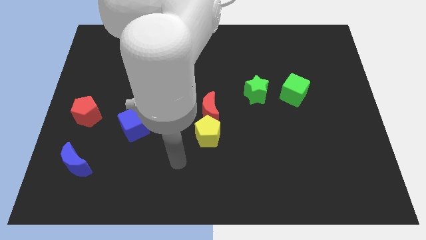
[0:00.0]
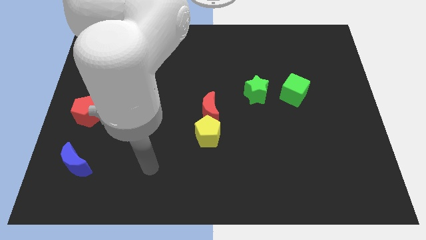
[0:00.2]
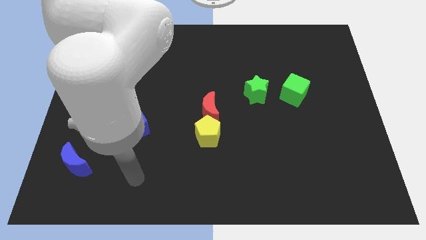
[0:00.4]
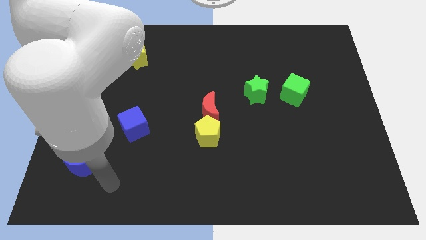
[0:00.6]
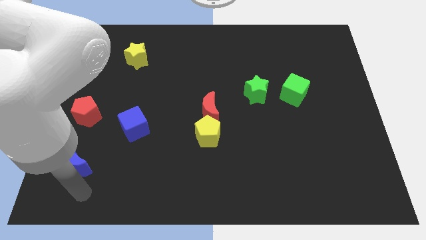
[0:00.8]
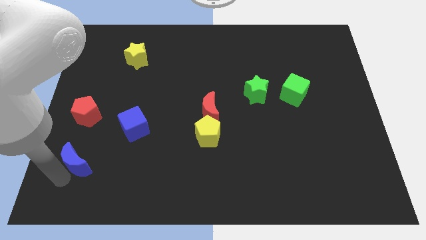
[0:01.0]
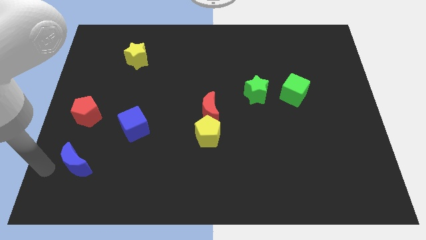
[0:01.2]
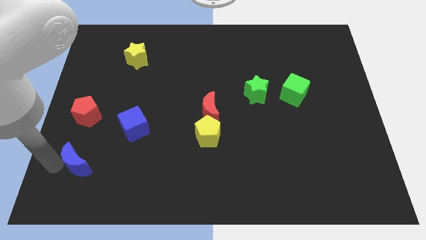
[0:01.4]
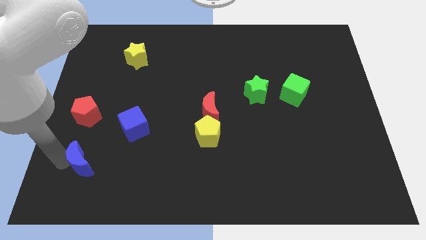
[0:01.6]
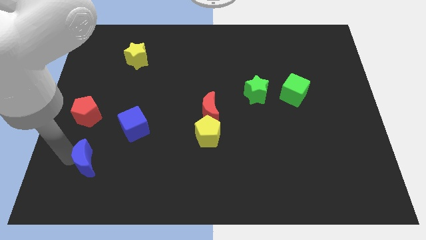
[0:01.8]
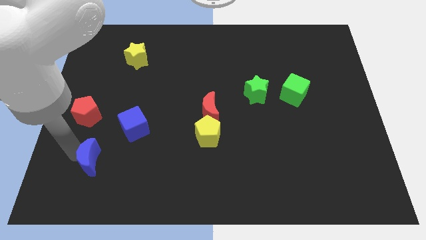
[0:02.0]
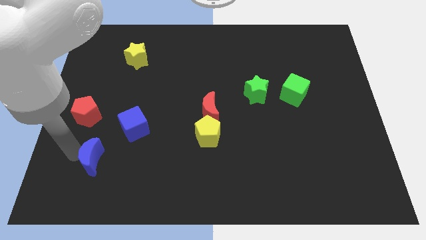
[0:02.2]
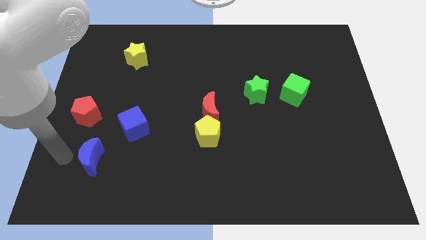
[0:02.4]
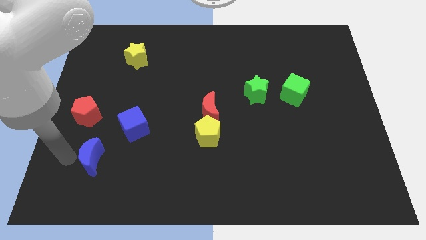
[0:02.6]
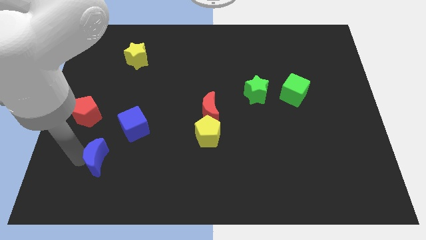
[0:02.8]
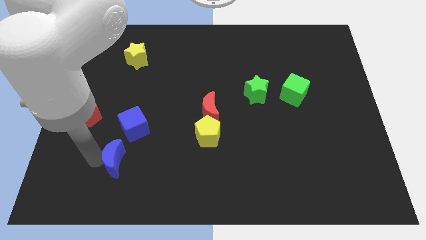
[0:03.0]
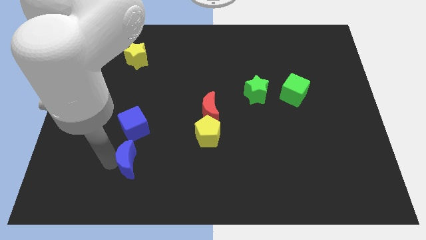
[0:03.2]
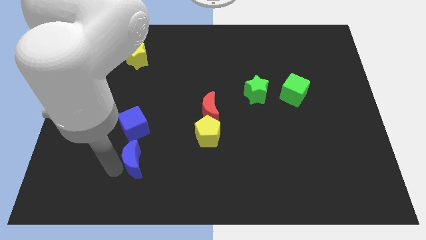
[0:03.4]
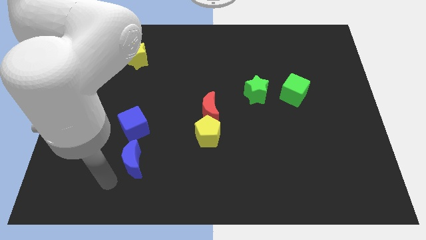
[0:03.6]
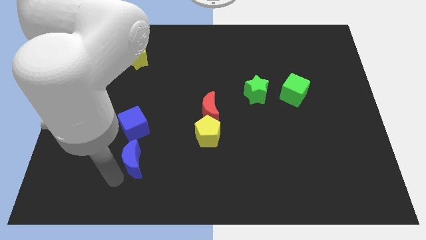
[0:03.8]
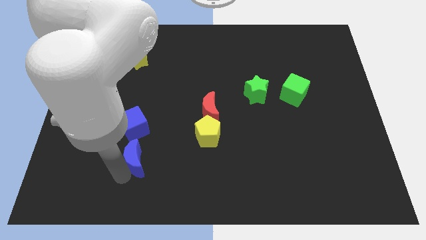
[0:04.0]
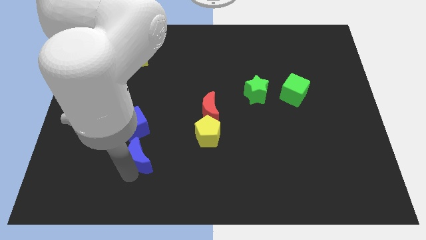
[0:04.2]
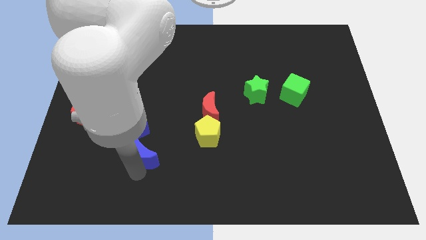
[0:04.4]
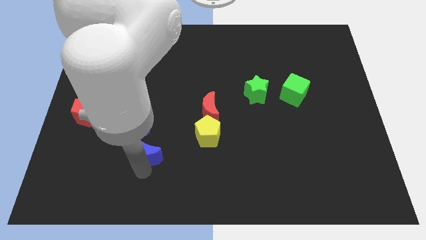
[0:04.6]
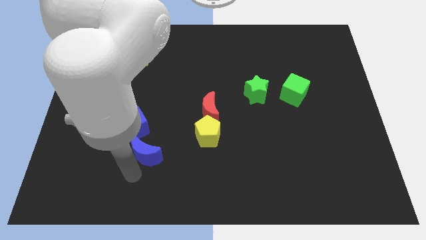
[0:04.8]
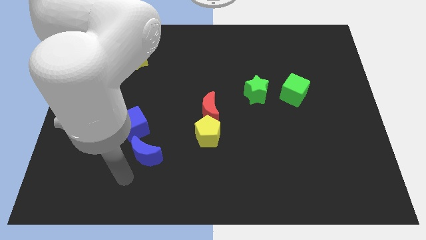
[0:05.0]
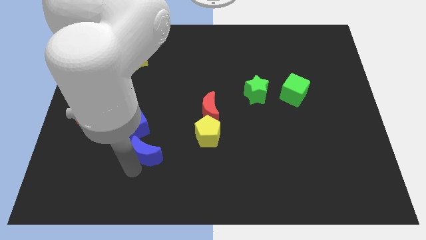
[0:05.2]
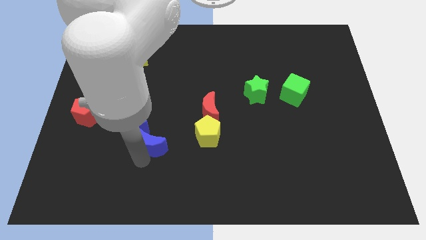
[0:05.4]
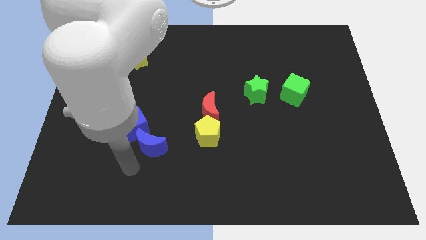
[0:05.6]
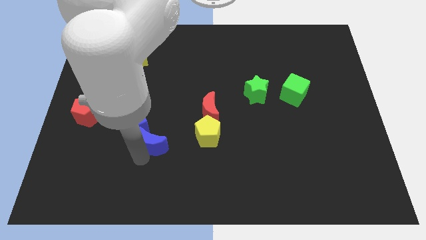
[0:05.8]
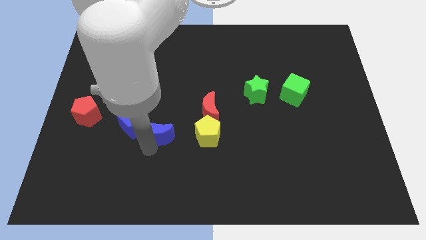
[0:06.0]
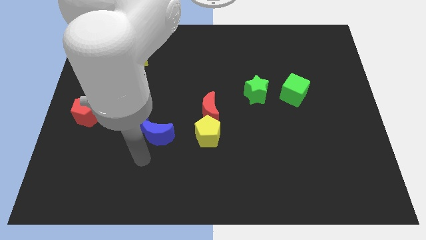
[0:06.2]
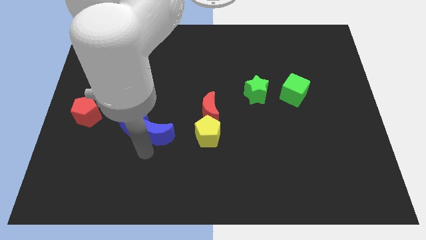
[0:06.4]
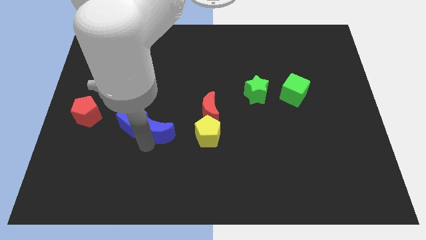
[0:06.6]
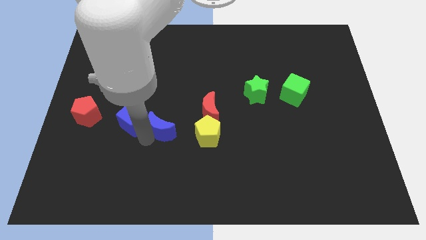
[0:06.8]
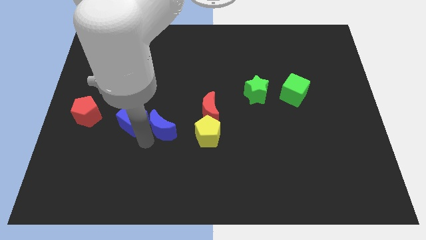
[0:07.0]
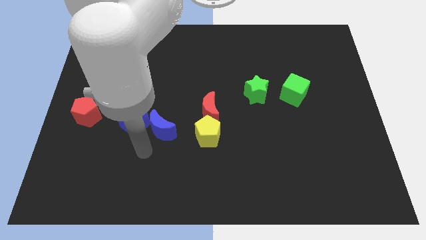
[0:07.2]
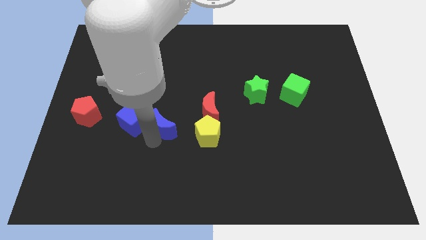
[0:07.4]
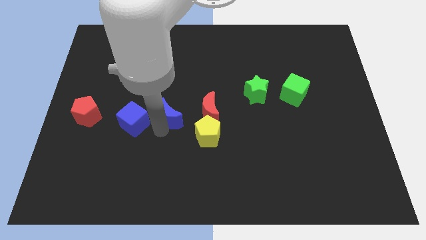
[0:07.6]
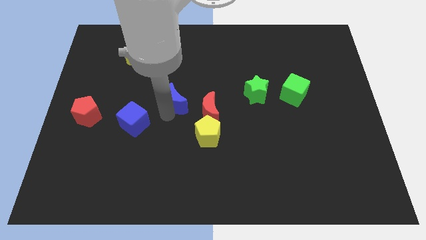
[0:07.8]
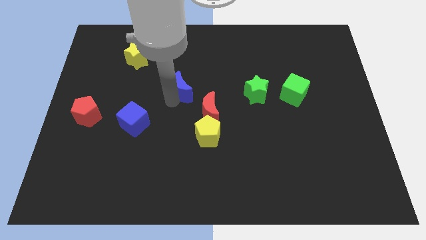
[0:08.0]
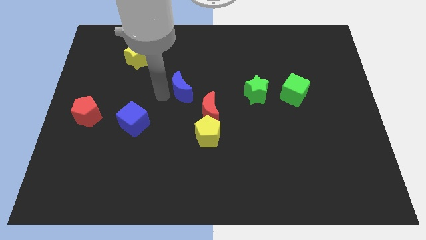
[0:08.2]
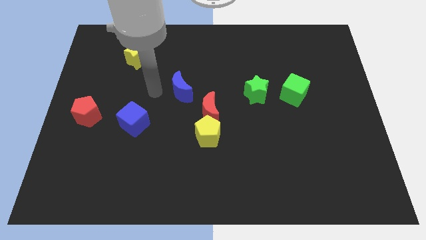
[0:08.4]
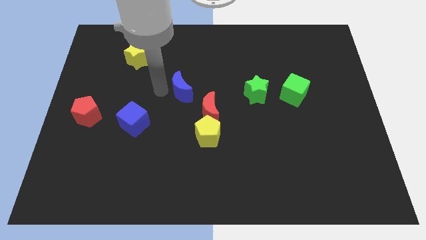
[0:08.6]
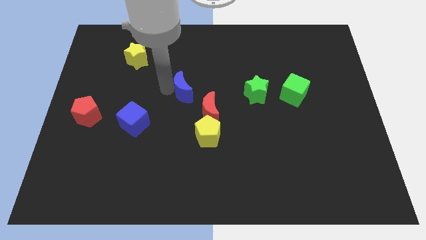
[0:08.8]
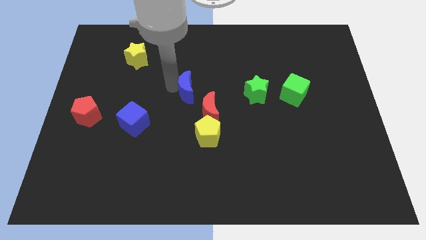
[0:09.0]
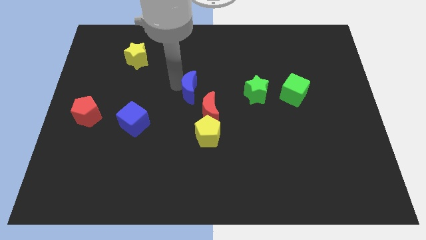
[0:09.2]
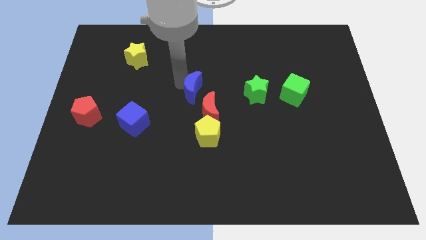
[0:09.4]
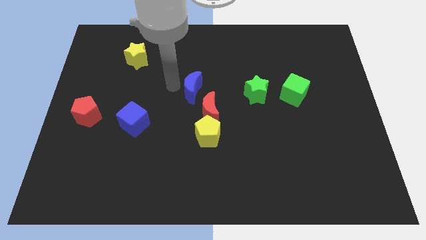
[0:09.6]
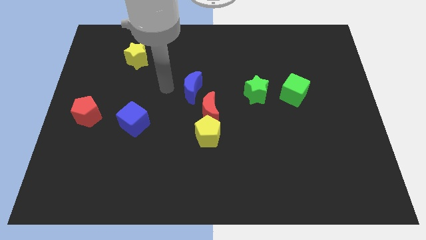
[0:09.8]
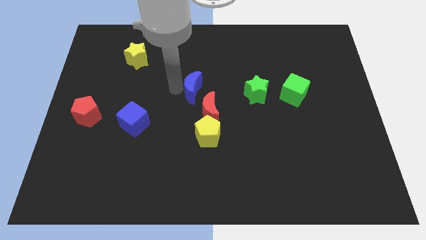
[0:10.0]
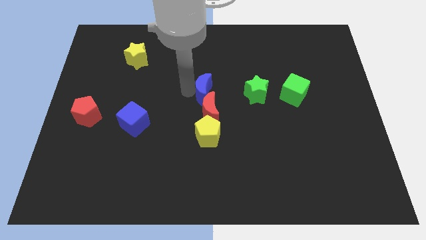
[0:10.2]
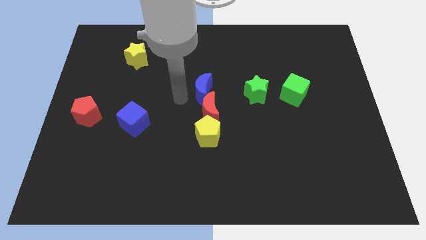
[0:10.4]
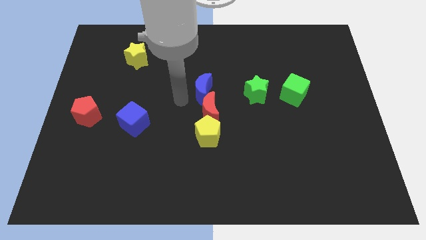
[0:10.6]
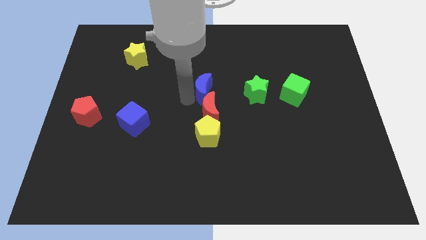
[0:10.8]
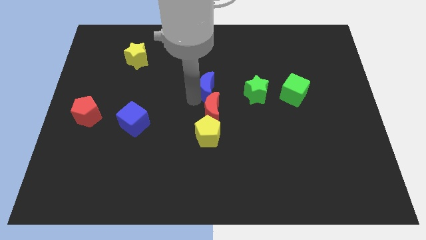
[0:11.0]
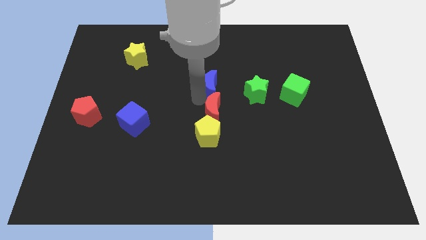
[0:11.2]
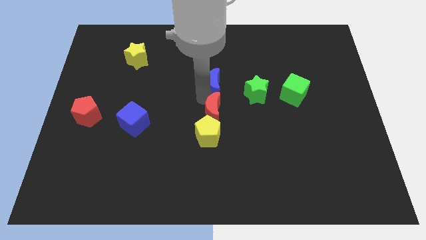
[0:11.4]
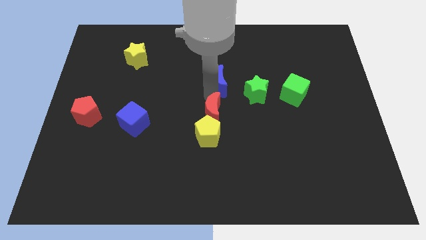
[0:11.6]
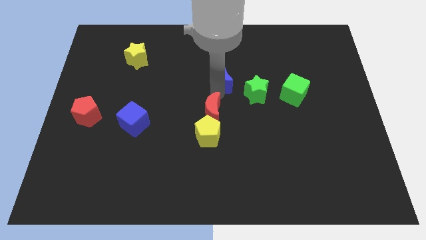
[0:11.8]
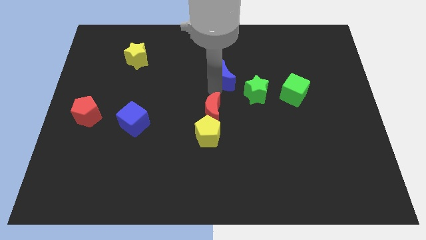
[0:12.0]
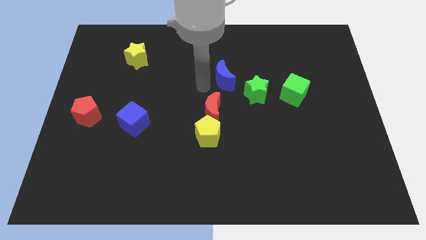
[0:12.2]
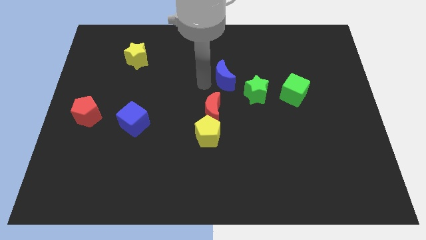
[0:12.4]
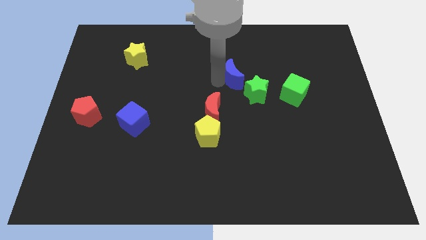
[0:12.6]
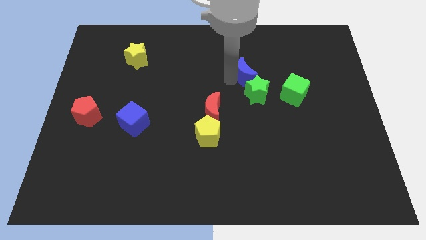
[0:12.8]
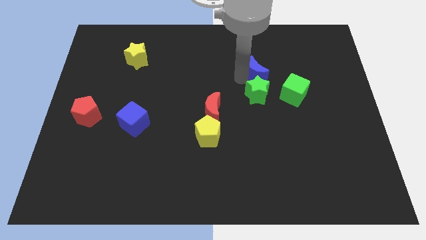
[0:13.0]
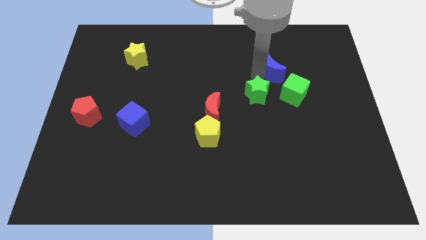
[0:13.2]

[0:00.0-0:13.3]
slide the blue moon above the green cube
